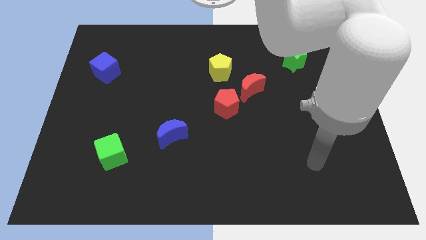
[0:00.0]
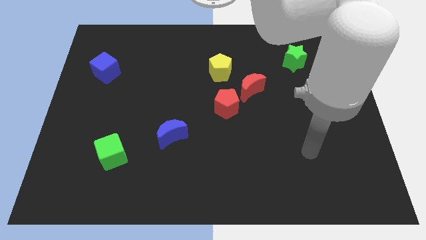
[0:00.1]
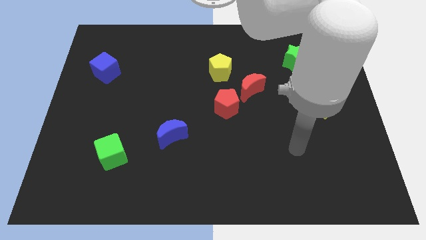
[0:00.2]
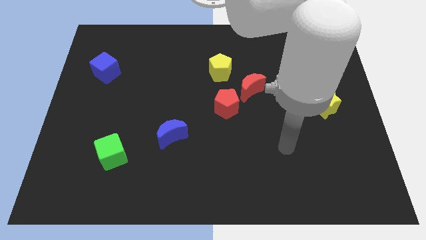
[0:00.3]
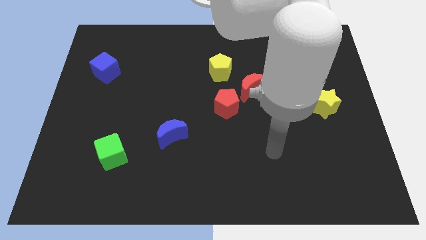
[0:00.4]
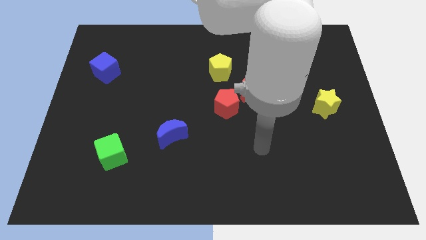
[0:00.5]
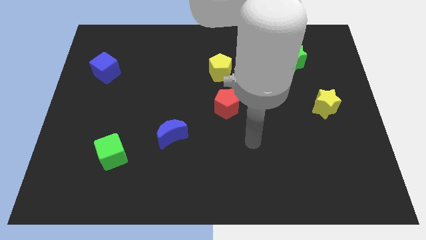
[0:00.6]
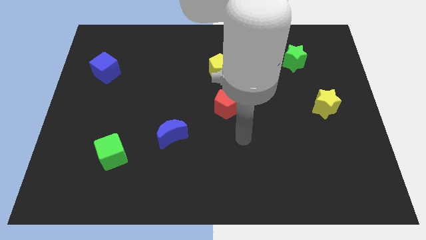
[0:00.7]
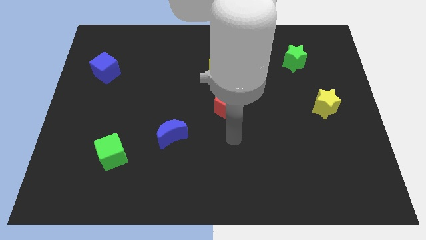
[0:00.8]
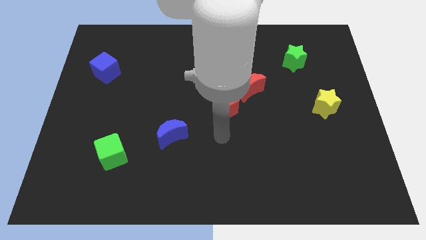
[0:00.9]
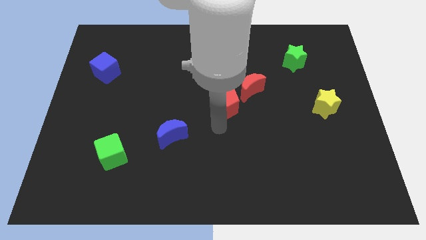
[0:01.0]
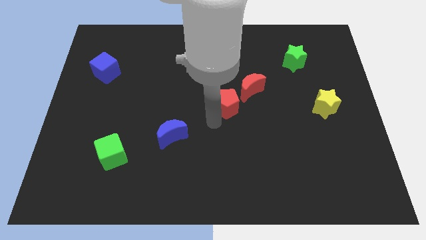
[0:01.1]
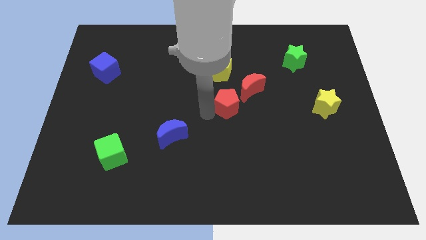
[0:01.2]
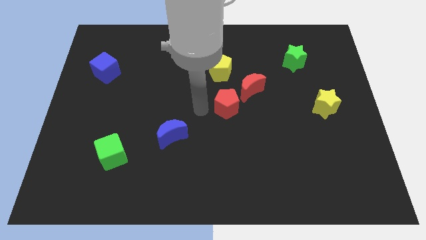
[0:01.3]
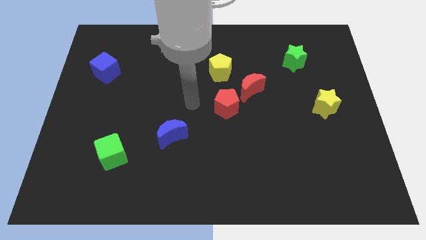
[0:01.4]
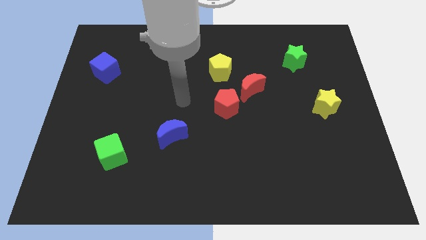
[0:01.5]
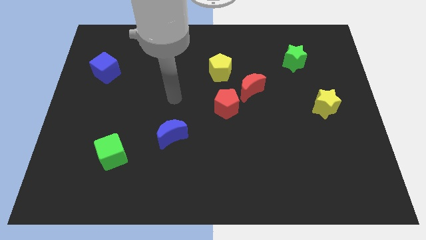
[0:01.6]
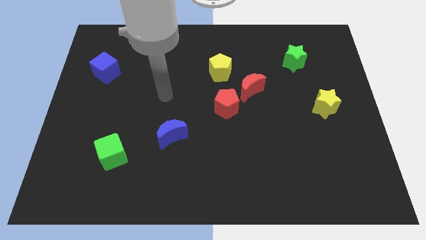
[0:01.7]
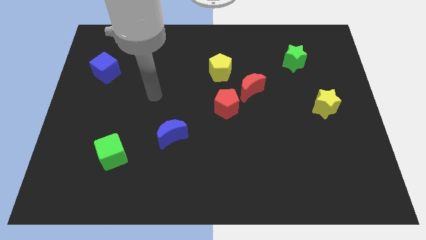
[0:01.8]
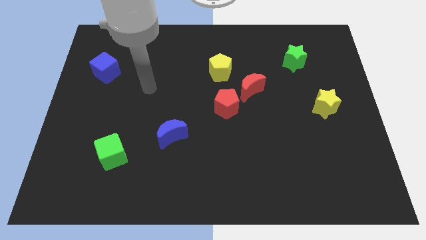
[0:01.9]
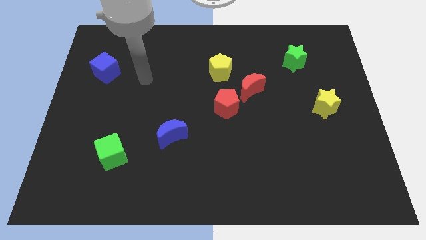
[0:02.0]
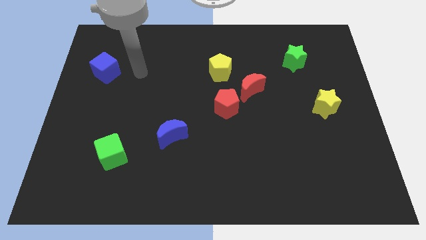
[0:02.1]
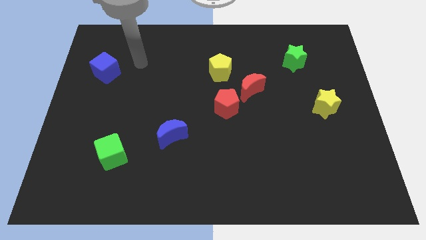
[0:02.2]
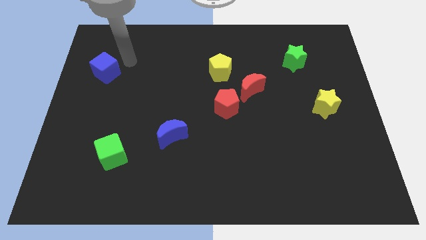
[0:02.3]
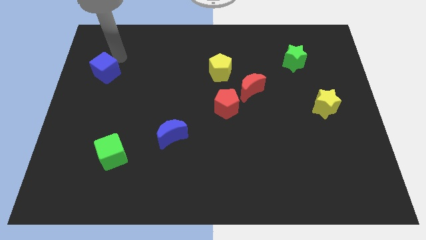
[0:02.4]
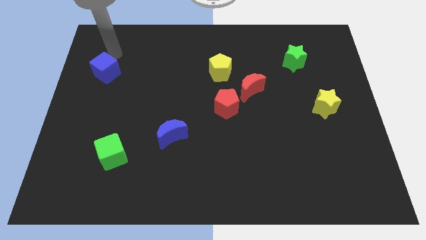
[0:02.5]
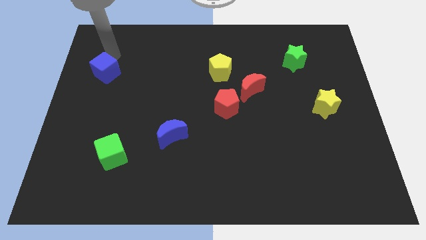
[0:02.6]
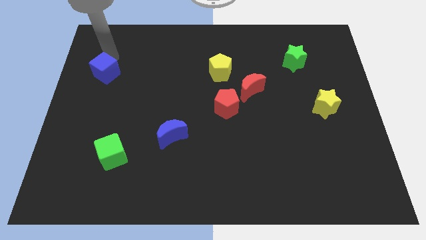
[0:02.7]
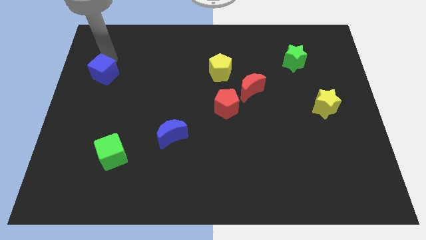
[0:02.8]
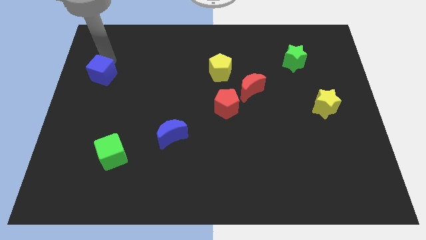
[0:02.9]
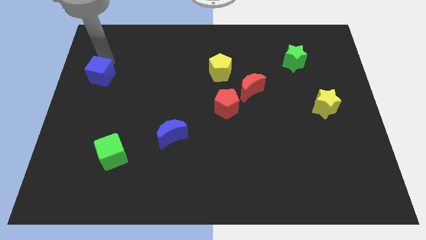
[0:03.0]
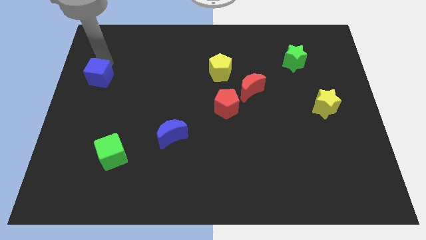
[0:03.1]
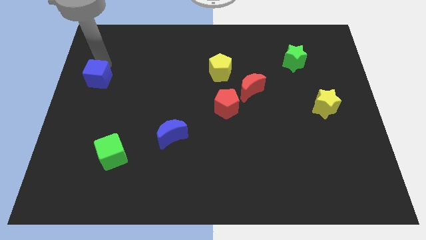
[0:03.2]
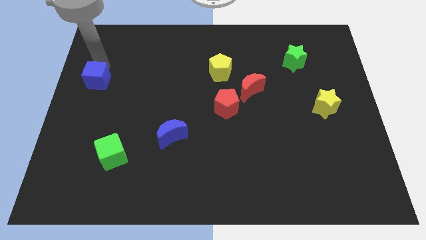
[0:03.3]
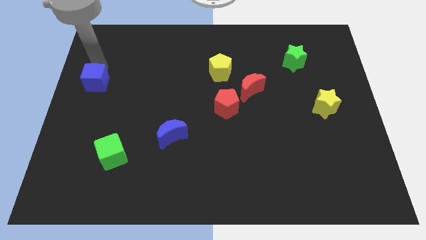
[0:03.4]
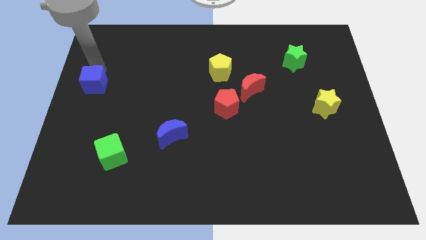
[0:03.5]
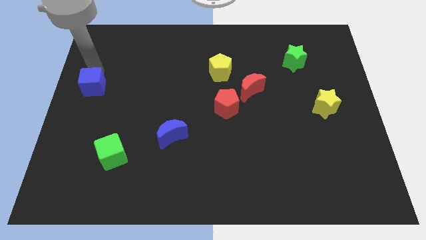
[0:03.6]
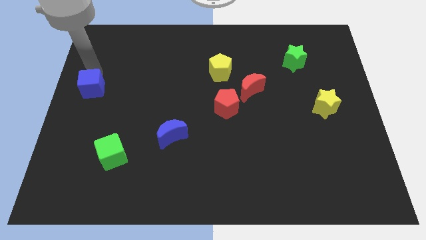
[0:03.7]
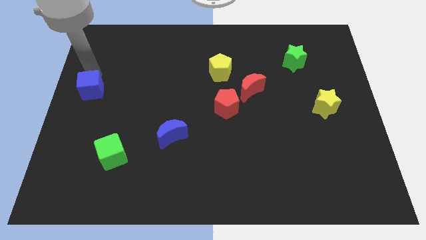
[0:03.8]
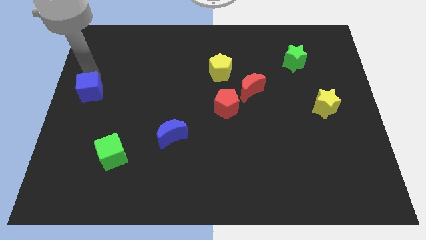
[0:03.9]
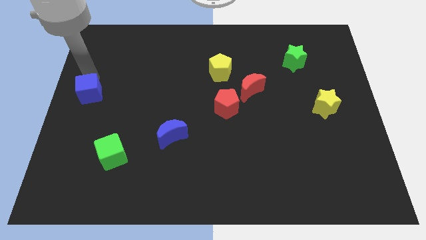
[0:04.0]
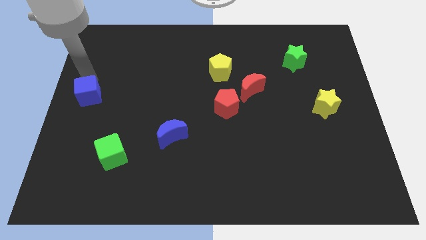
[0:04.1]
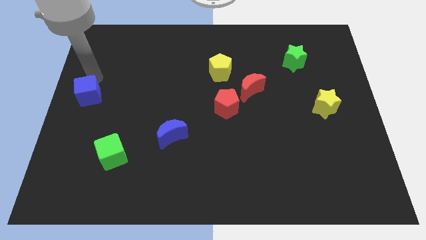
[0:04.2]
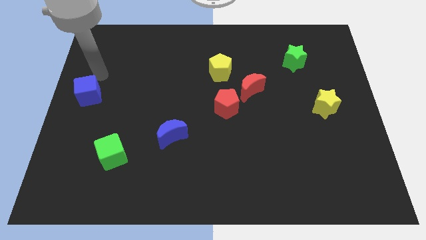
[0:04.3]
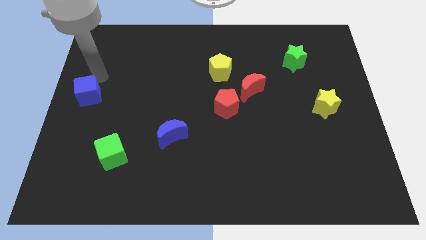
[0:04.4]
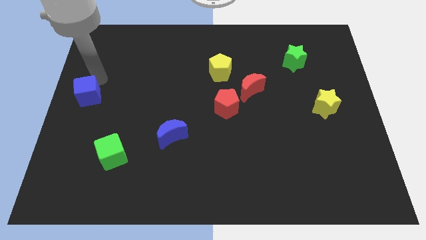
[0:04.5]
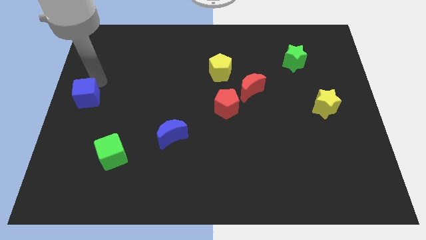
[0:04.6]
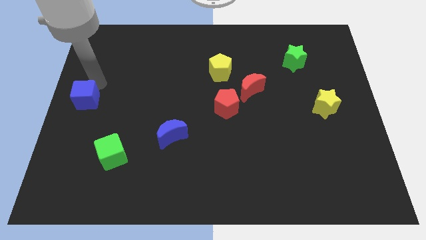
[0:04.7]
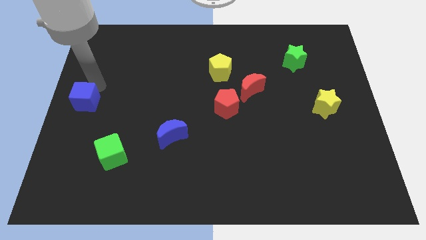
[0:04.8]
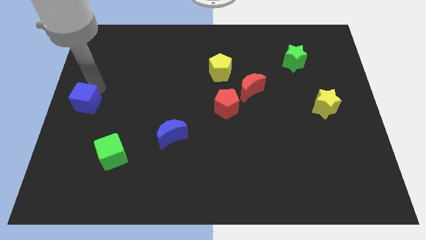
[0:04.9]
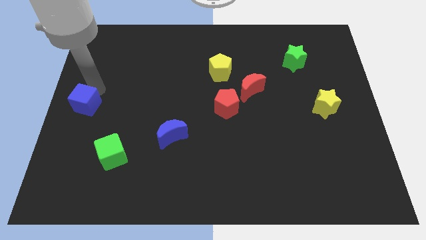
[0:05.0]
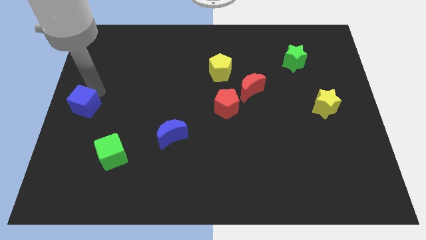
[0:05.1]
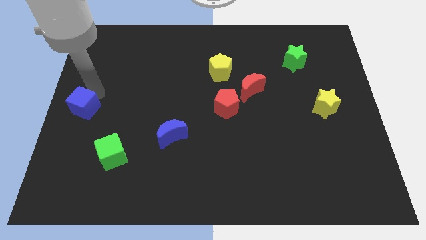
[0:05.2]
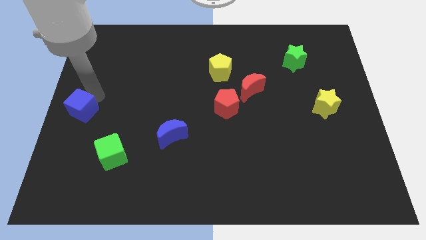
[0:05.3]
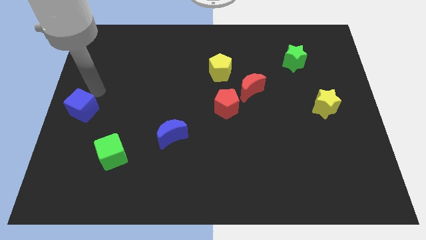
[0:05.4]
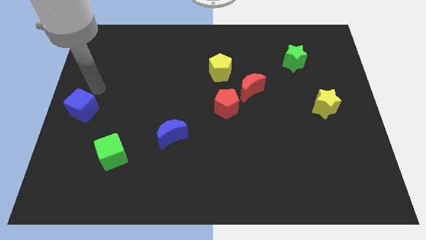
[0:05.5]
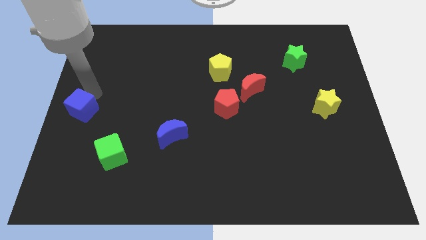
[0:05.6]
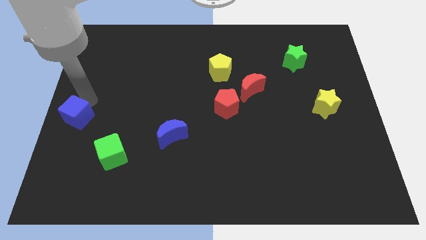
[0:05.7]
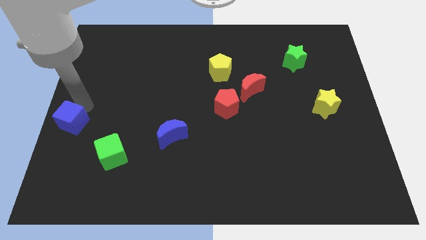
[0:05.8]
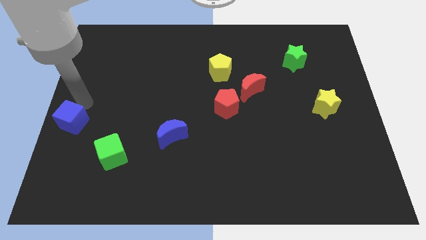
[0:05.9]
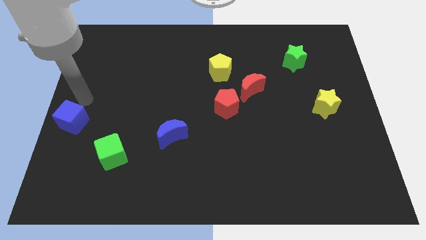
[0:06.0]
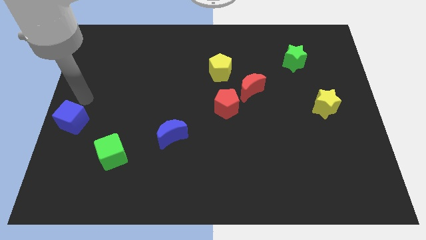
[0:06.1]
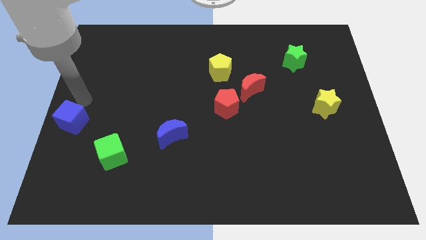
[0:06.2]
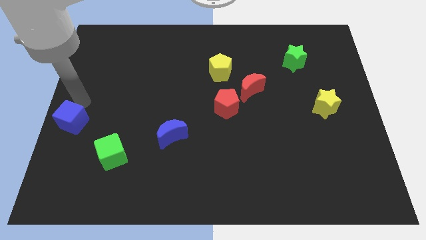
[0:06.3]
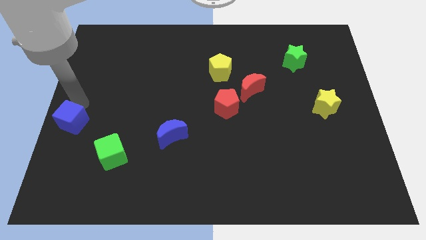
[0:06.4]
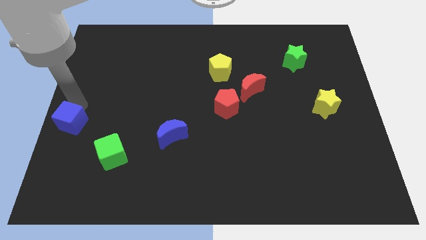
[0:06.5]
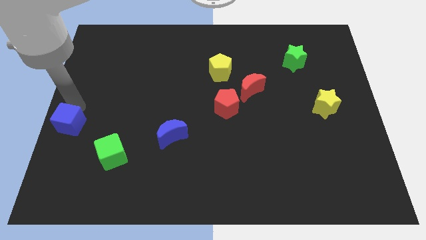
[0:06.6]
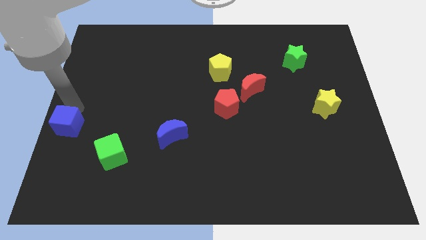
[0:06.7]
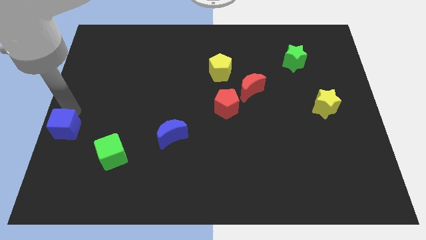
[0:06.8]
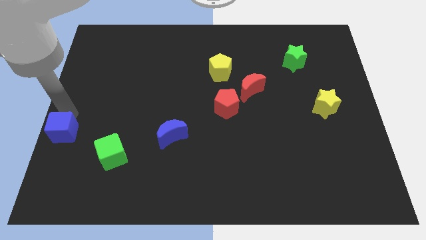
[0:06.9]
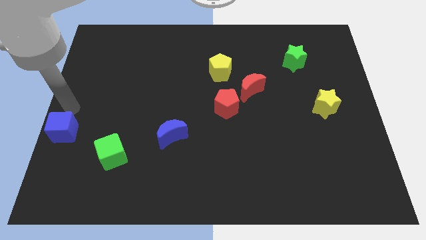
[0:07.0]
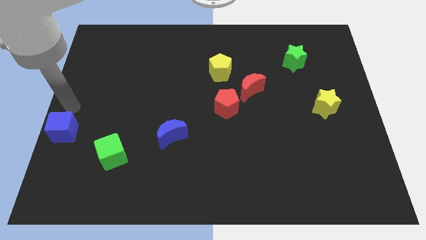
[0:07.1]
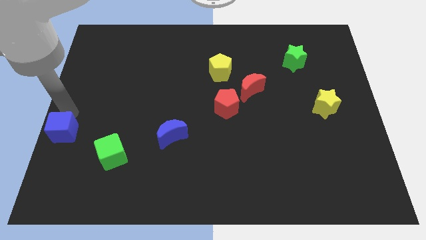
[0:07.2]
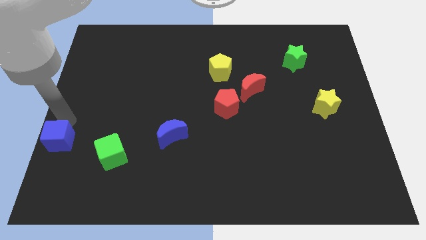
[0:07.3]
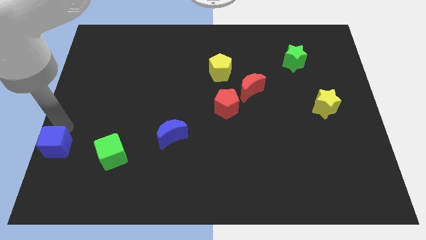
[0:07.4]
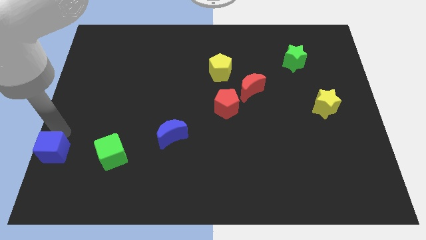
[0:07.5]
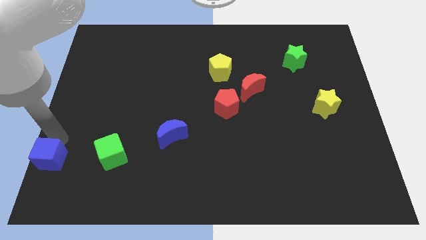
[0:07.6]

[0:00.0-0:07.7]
move the blue cube to the bottom left corner
